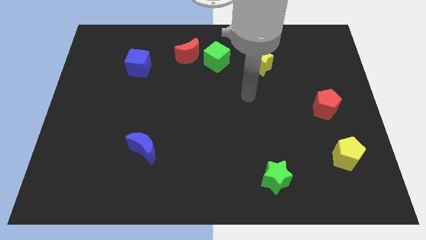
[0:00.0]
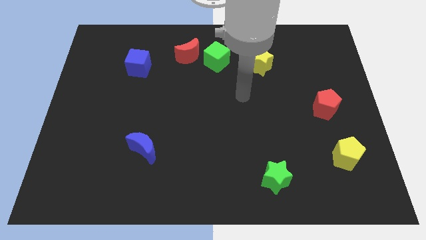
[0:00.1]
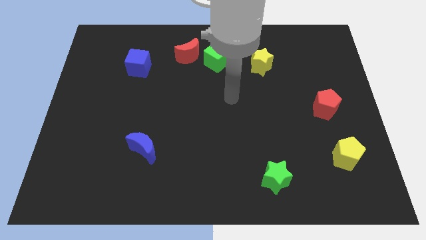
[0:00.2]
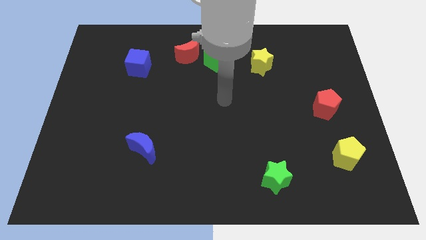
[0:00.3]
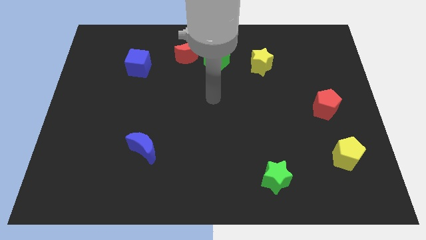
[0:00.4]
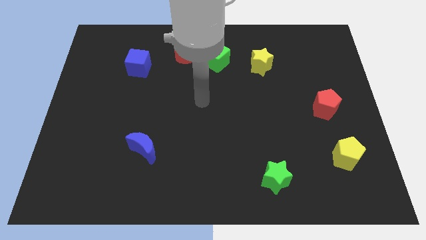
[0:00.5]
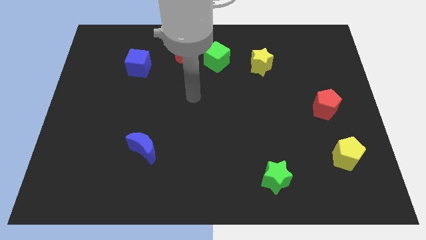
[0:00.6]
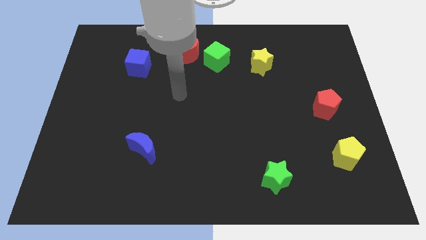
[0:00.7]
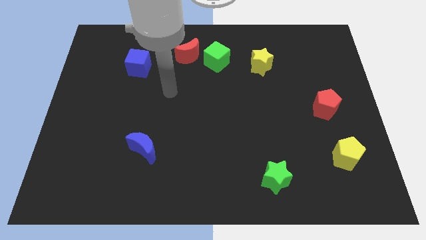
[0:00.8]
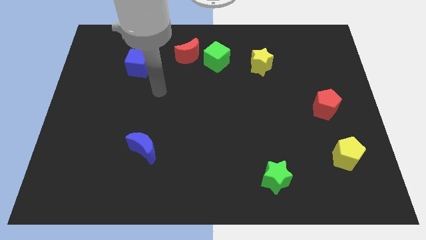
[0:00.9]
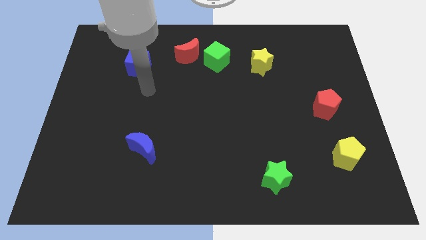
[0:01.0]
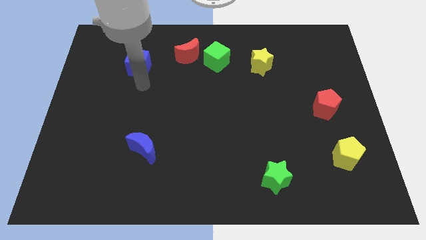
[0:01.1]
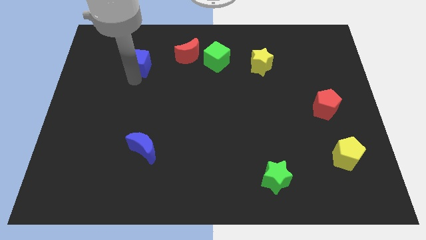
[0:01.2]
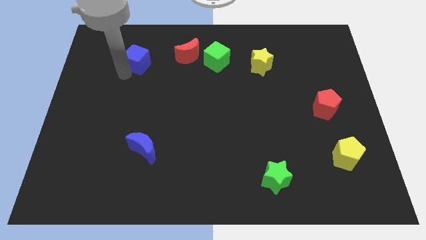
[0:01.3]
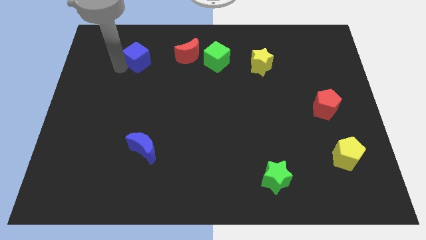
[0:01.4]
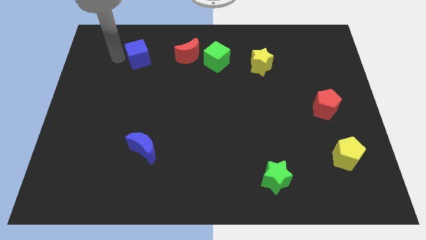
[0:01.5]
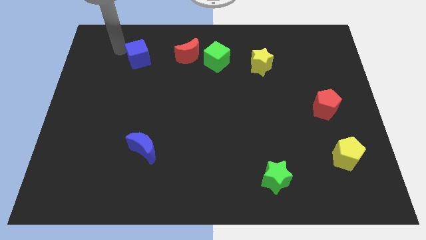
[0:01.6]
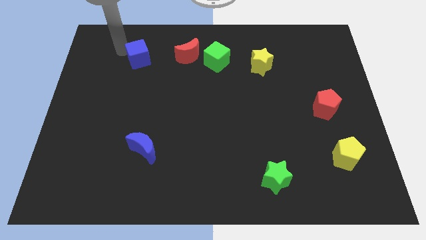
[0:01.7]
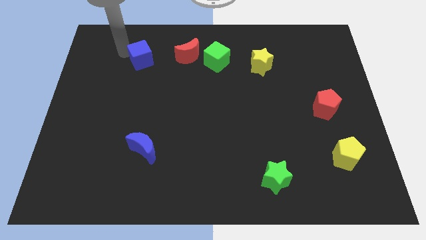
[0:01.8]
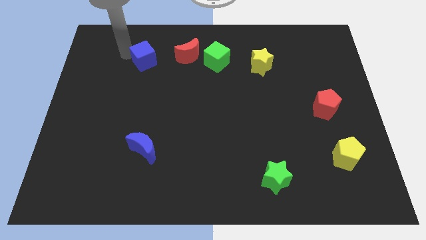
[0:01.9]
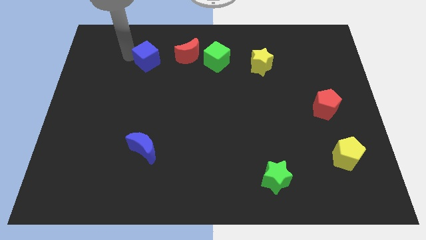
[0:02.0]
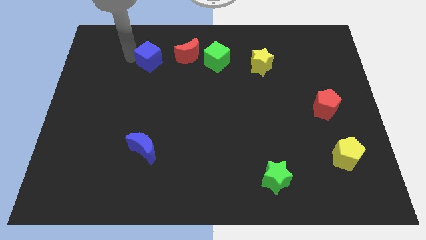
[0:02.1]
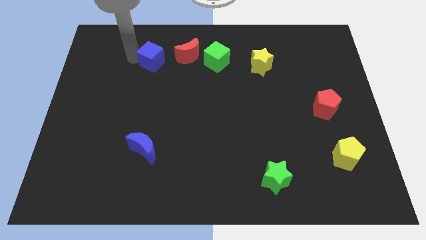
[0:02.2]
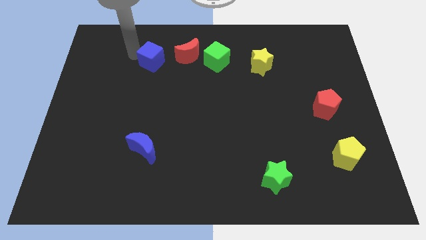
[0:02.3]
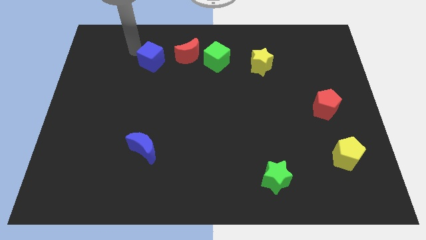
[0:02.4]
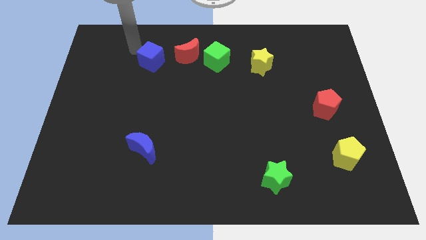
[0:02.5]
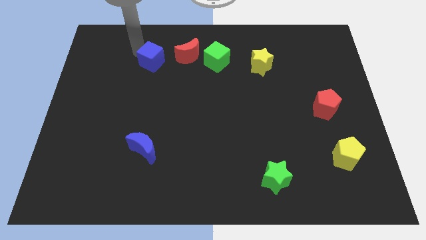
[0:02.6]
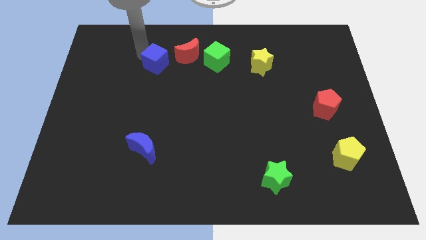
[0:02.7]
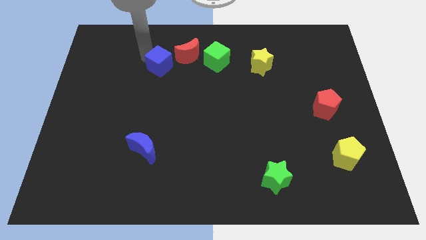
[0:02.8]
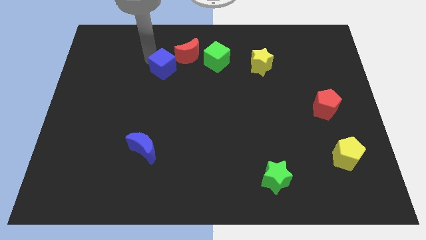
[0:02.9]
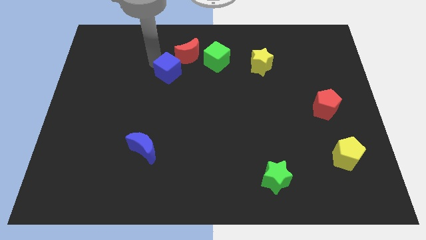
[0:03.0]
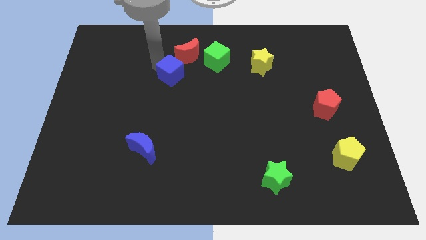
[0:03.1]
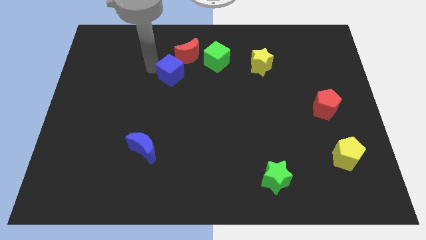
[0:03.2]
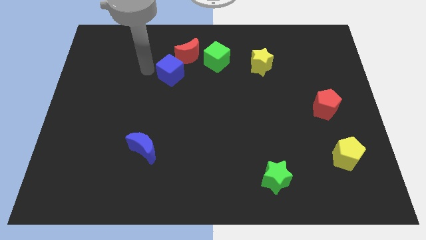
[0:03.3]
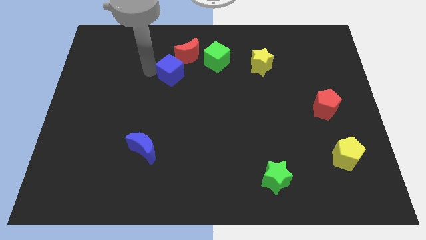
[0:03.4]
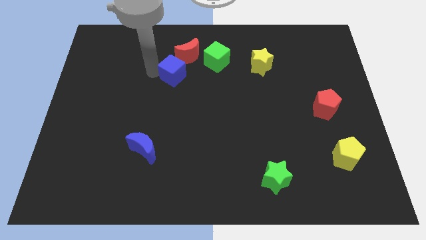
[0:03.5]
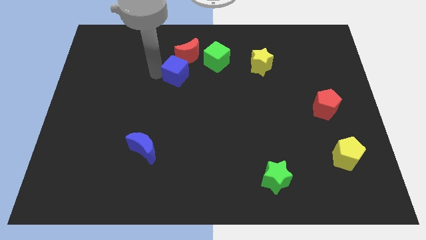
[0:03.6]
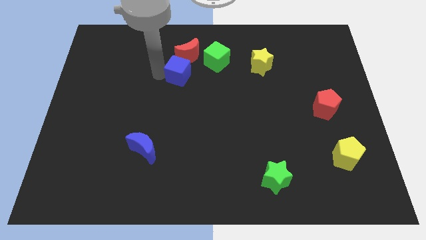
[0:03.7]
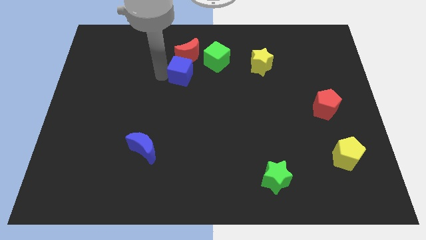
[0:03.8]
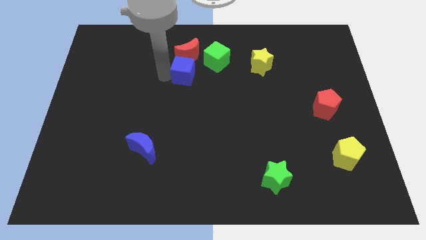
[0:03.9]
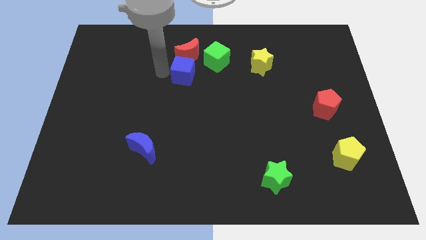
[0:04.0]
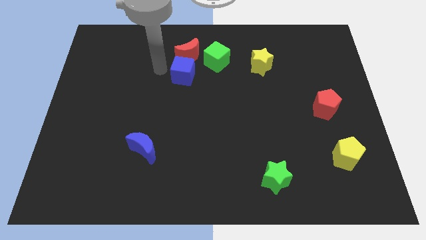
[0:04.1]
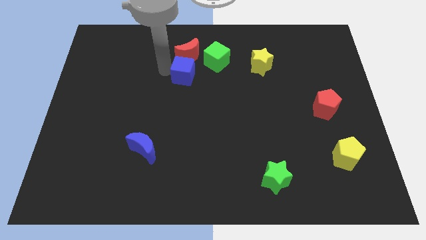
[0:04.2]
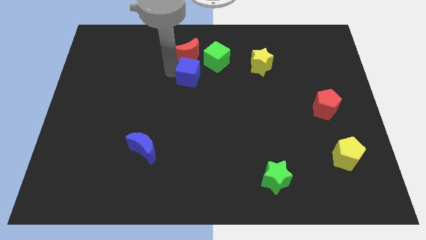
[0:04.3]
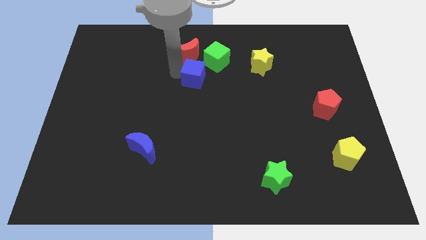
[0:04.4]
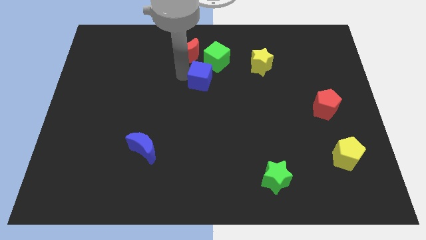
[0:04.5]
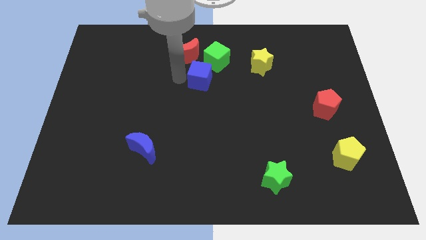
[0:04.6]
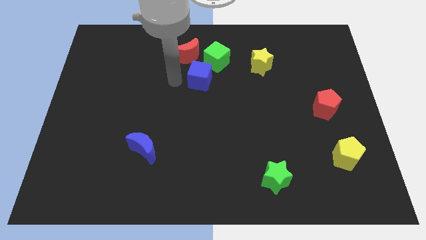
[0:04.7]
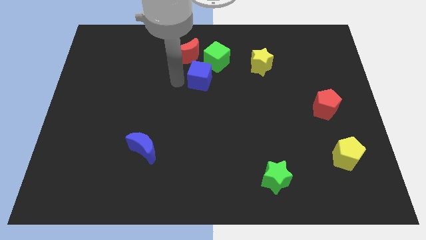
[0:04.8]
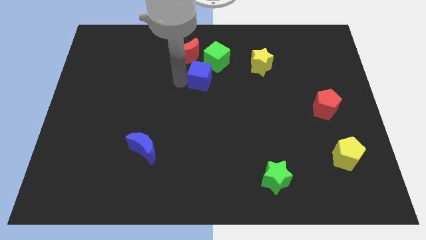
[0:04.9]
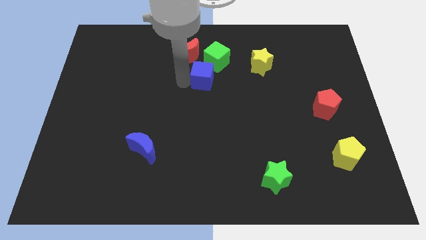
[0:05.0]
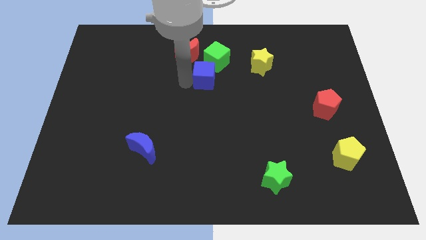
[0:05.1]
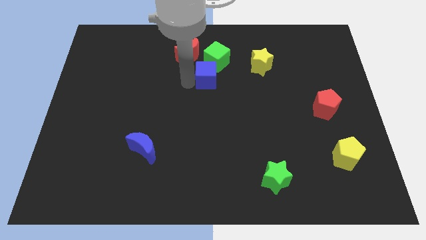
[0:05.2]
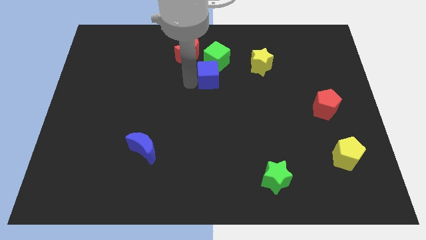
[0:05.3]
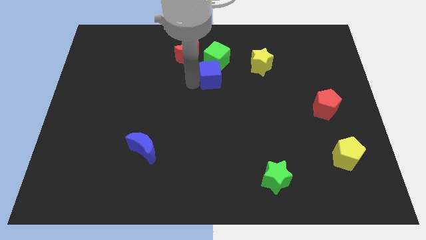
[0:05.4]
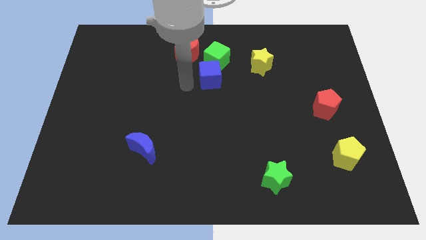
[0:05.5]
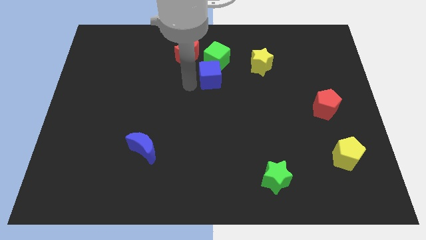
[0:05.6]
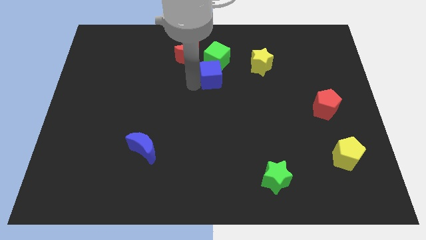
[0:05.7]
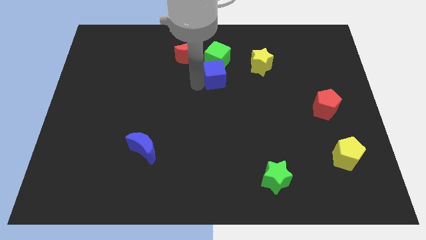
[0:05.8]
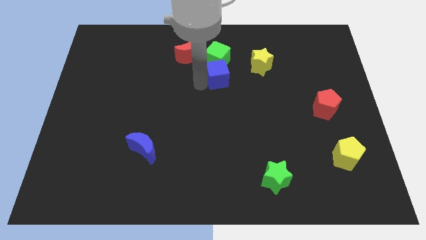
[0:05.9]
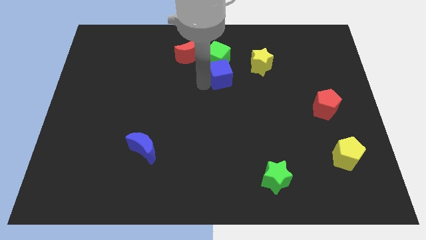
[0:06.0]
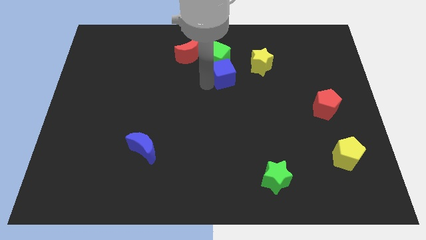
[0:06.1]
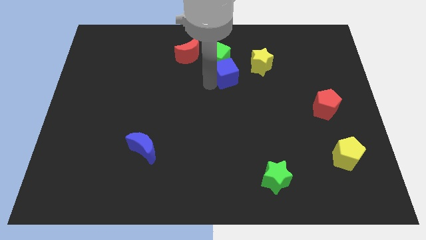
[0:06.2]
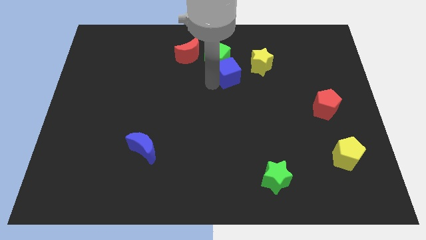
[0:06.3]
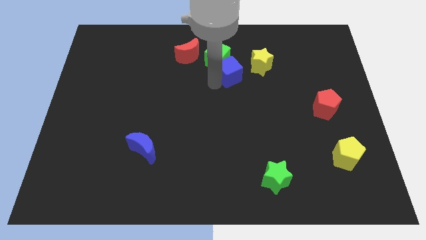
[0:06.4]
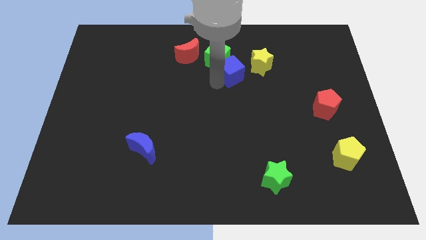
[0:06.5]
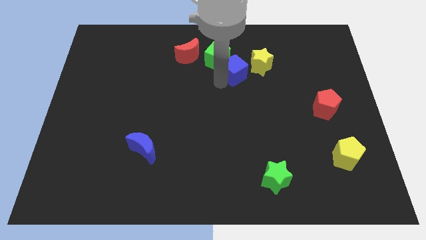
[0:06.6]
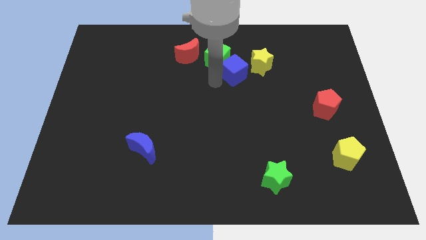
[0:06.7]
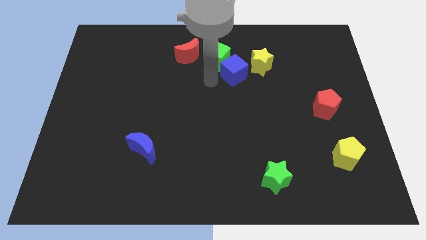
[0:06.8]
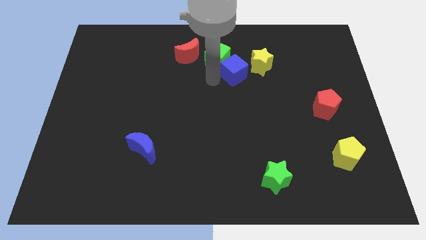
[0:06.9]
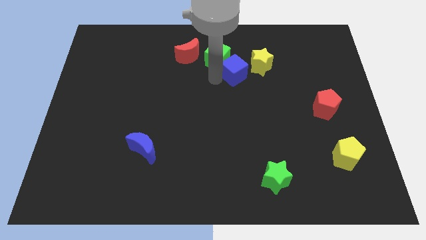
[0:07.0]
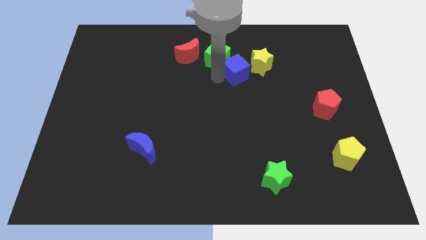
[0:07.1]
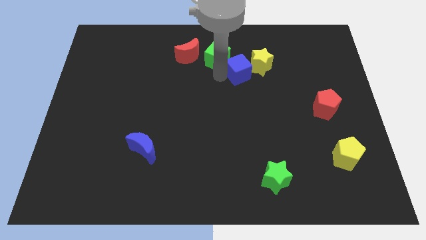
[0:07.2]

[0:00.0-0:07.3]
move the blue cube close to the yellow star
